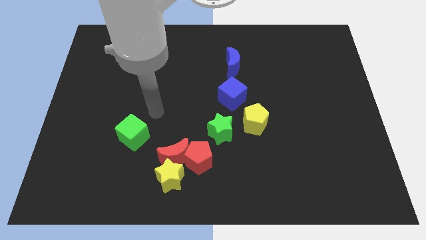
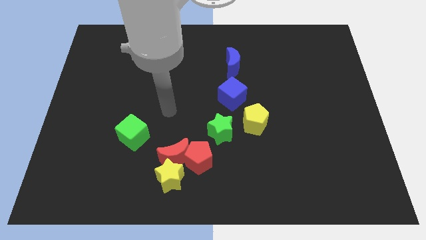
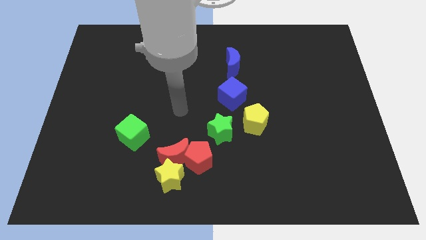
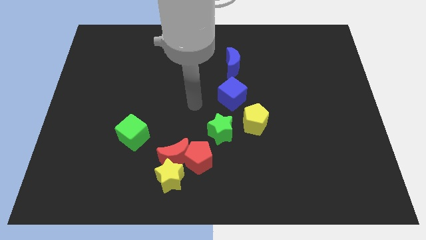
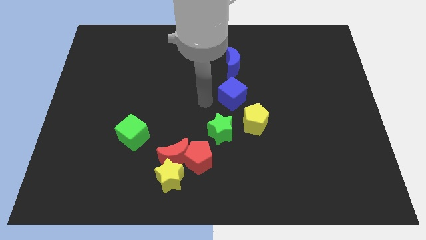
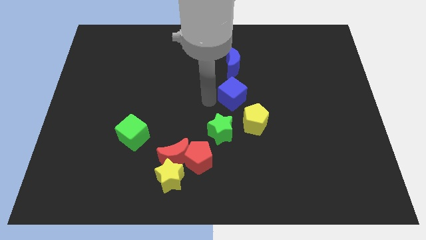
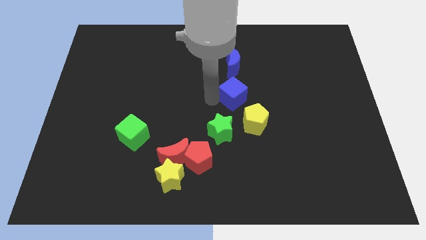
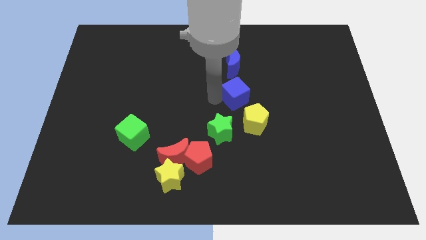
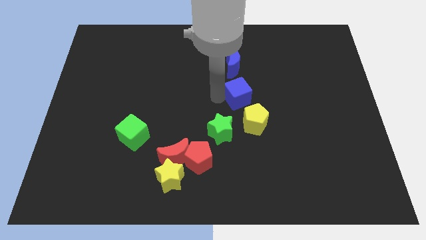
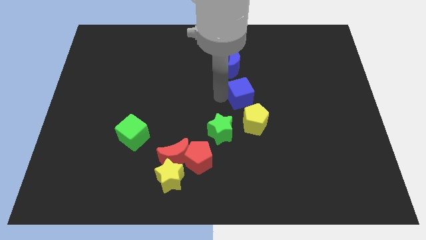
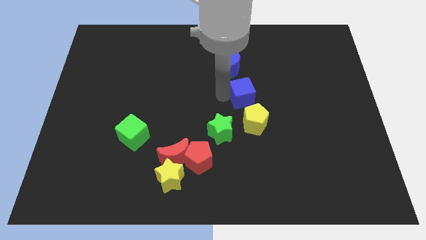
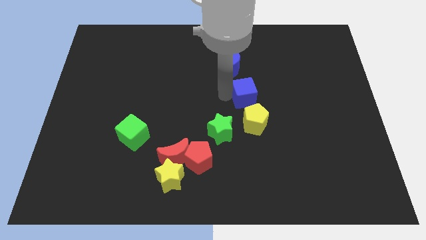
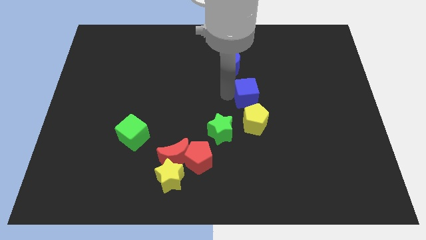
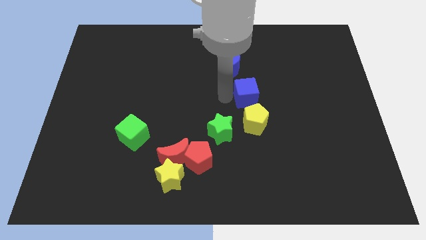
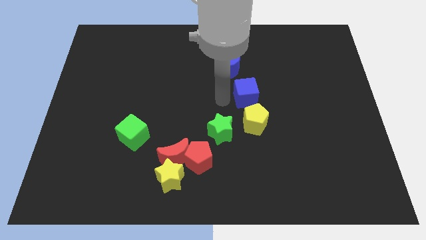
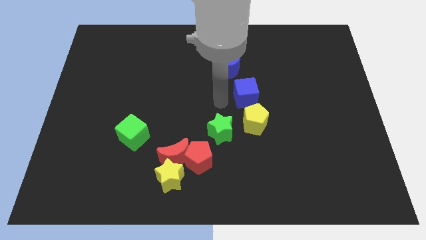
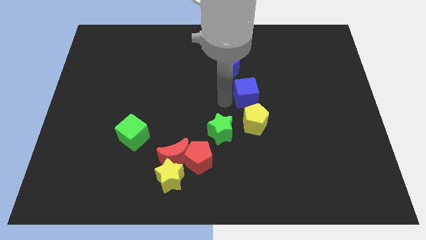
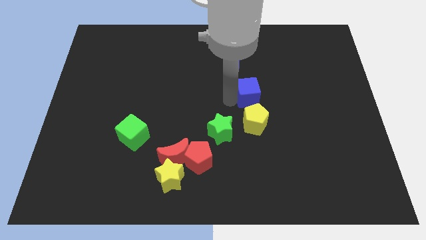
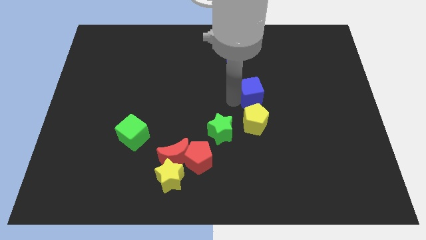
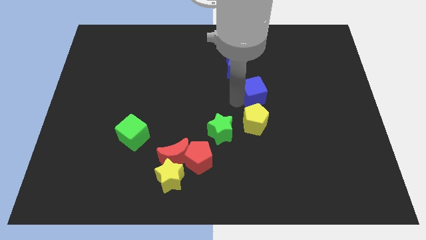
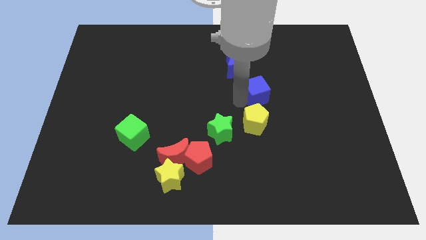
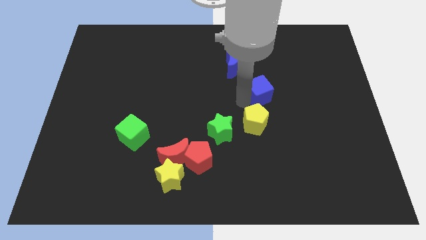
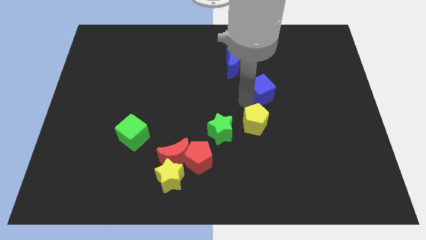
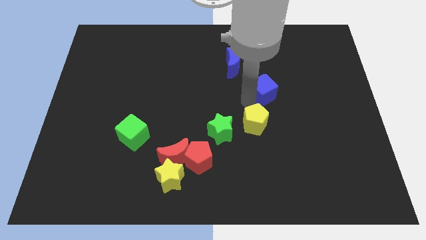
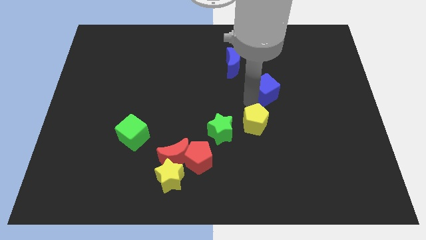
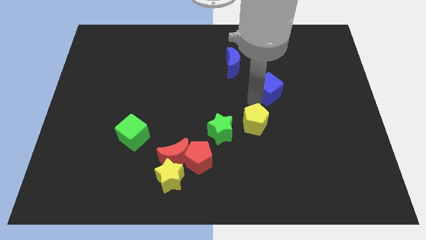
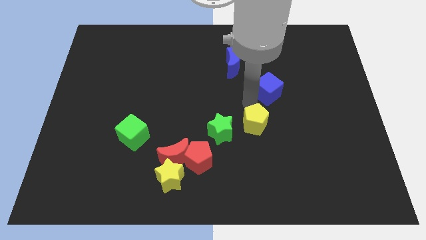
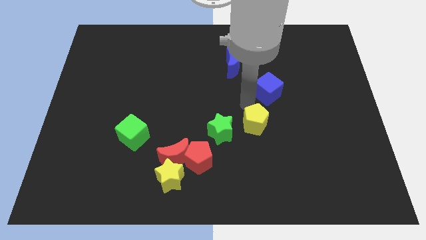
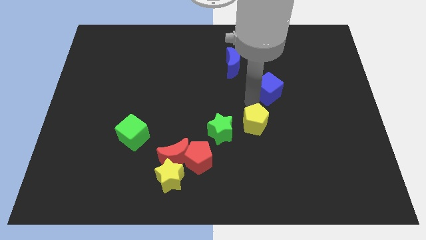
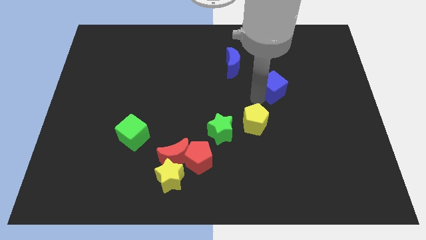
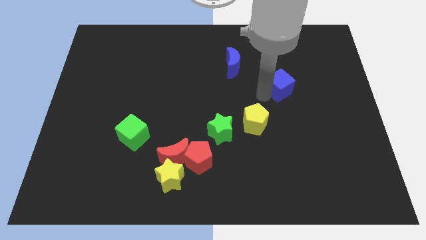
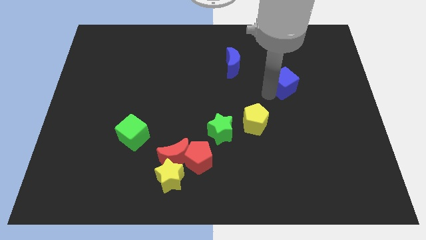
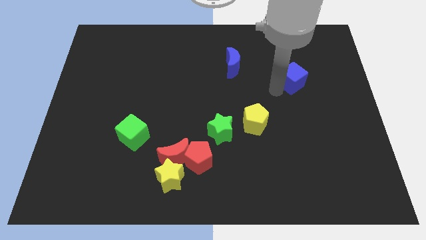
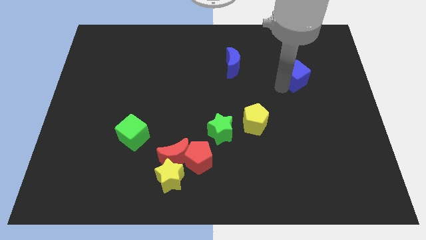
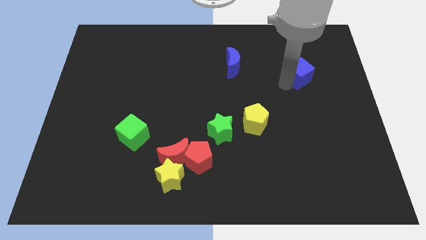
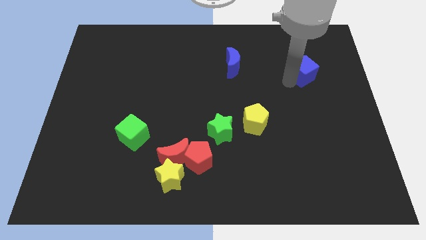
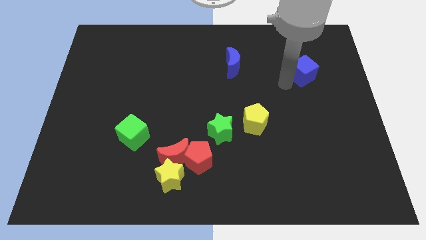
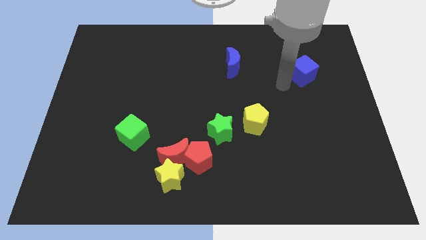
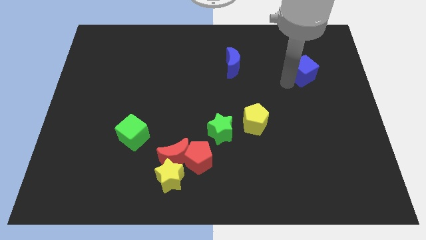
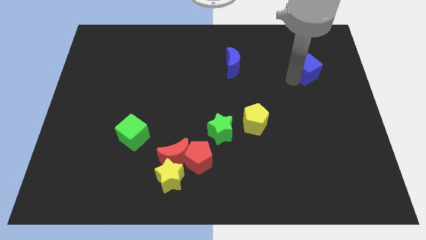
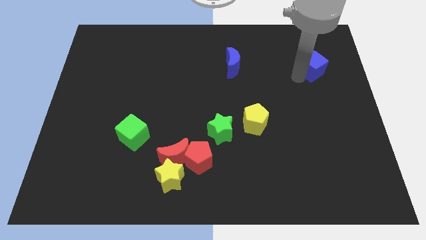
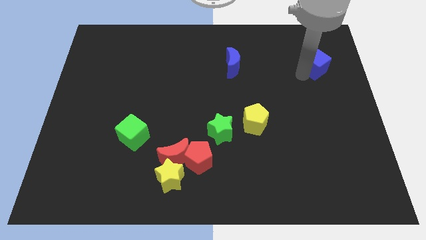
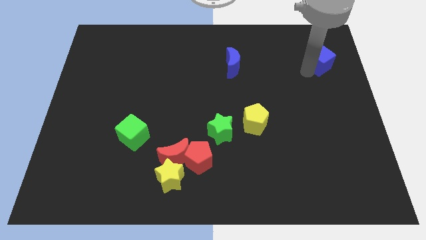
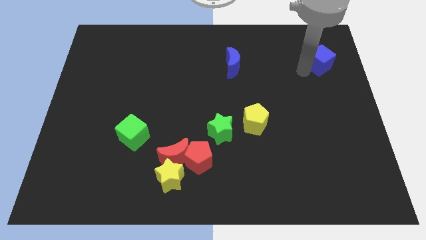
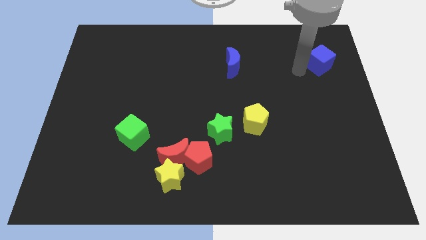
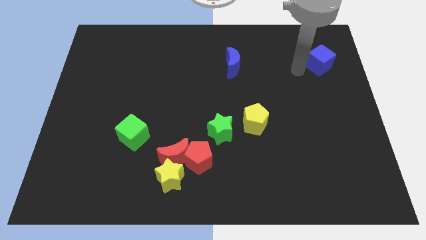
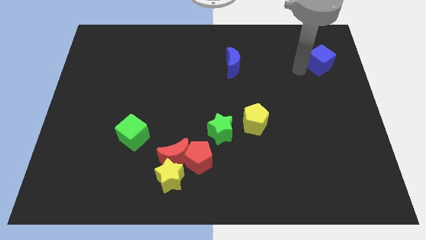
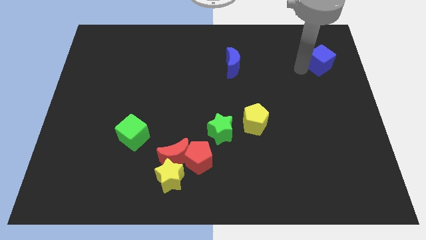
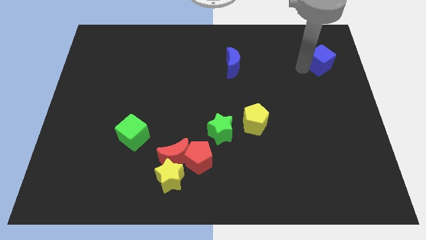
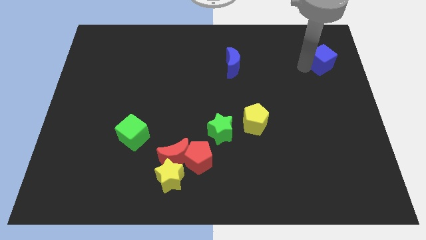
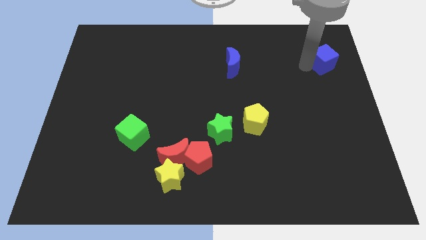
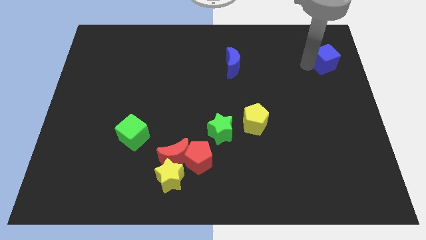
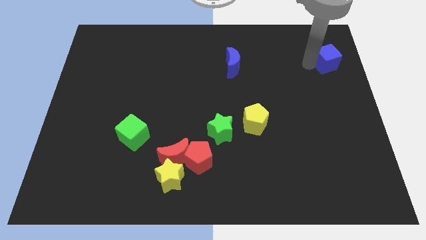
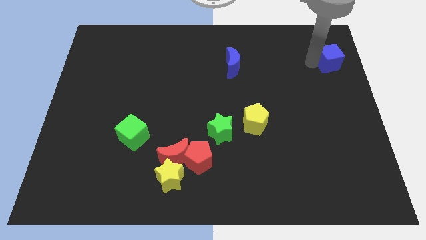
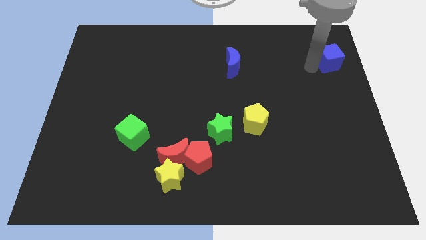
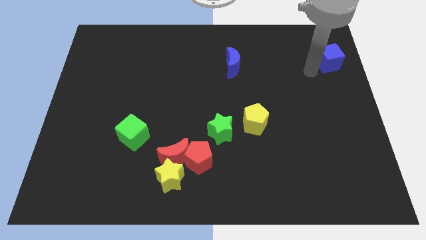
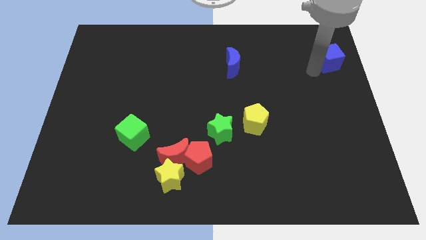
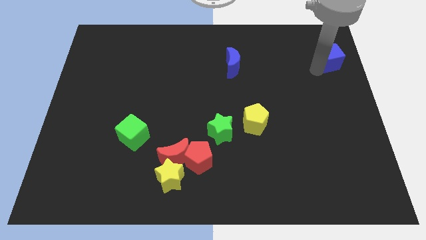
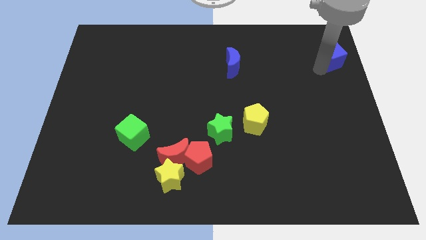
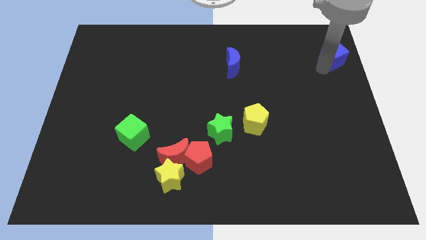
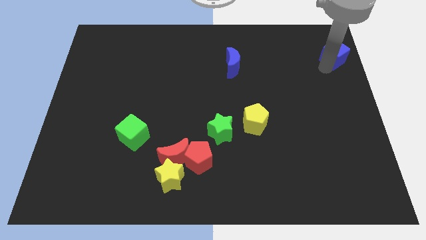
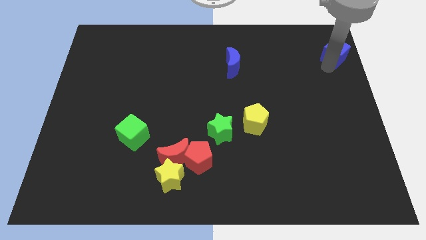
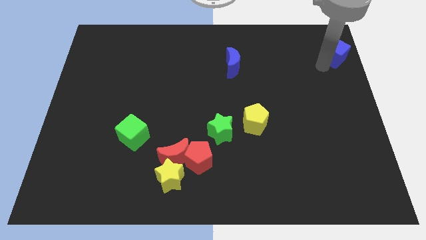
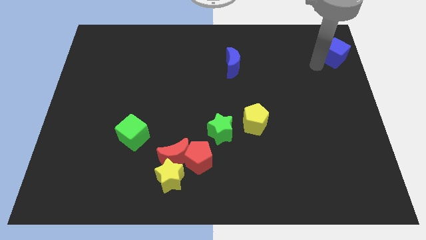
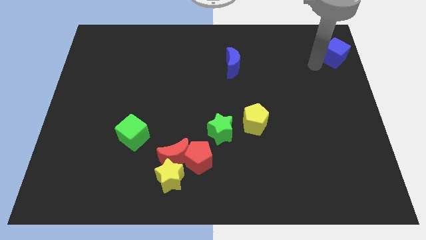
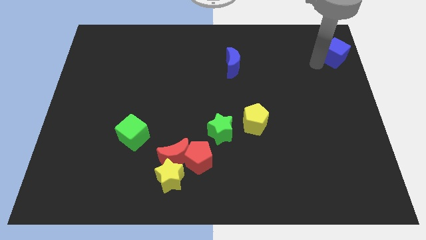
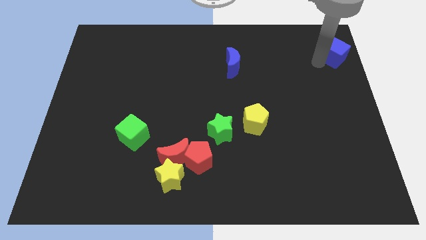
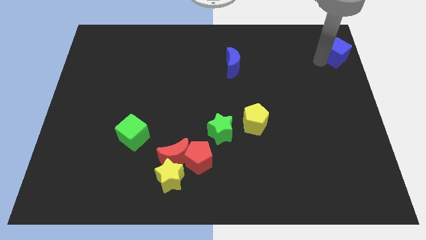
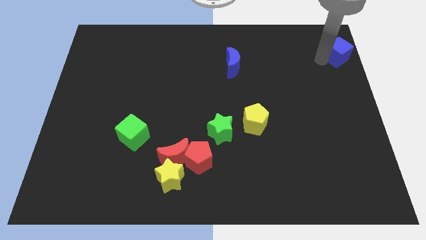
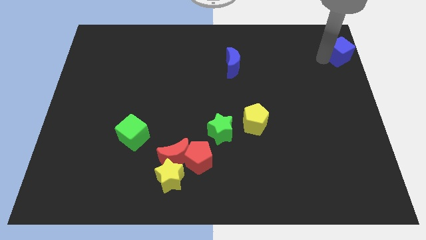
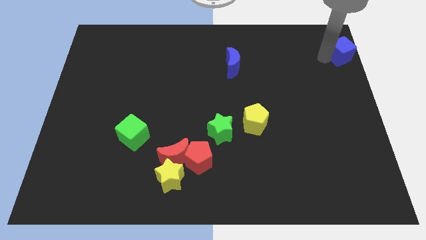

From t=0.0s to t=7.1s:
push the blue cube to the top right corner

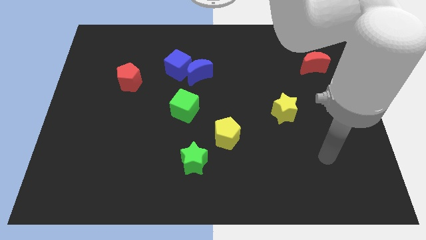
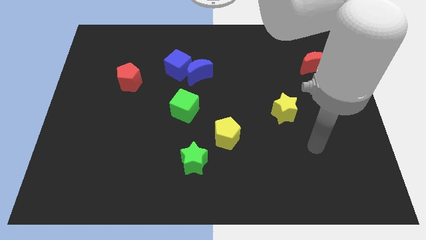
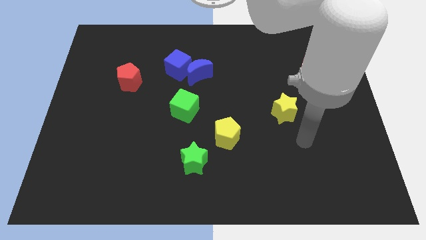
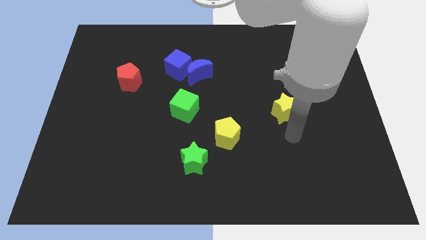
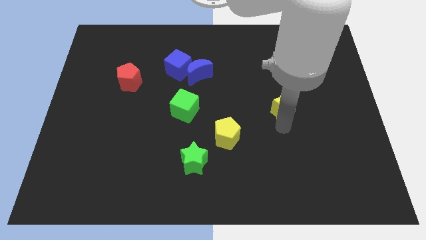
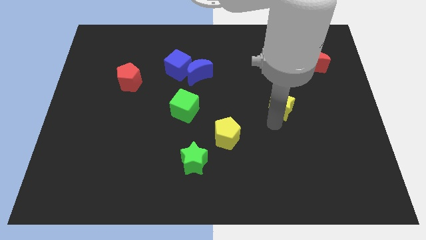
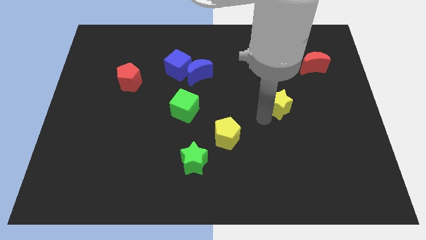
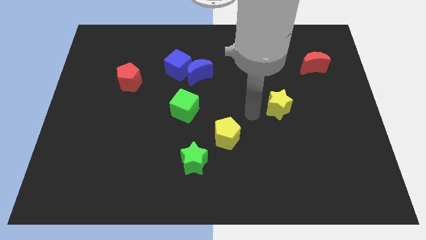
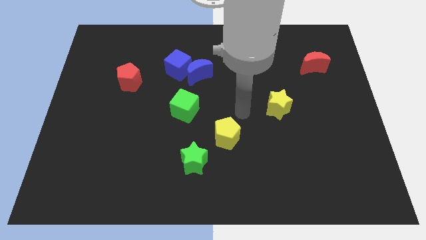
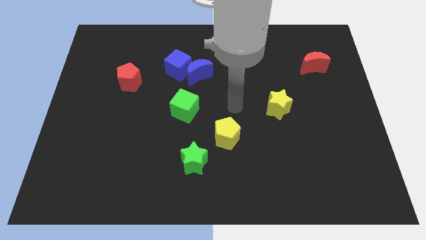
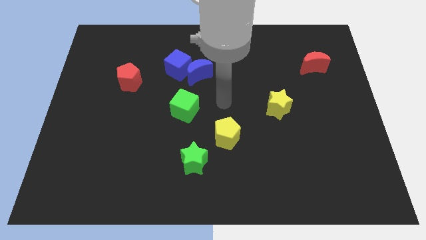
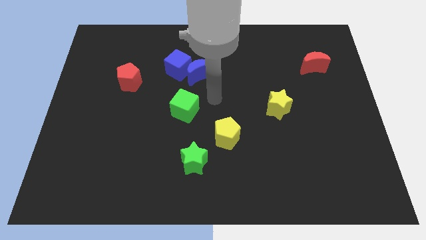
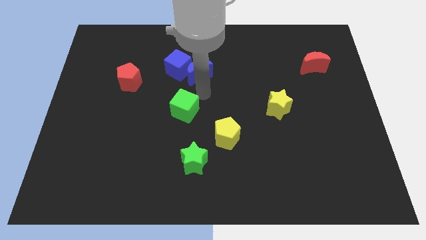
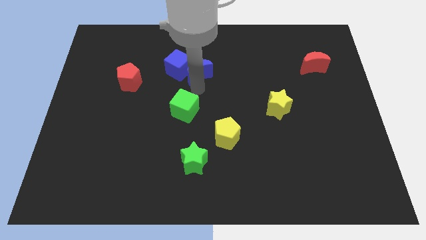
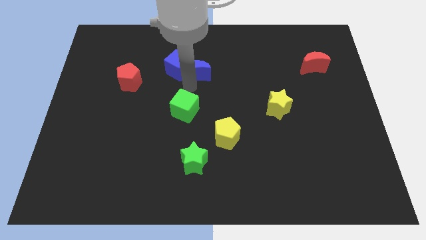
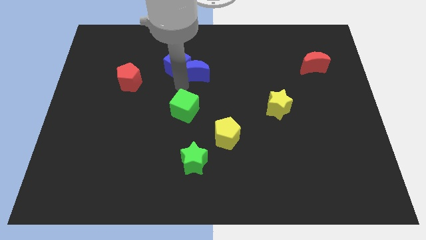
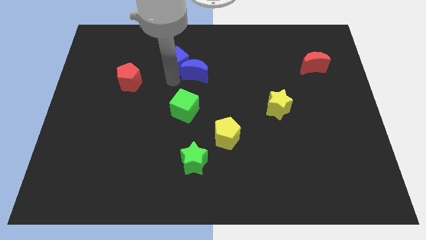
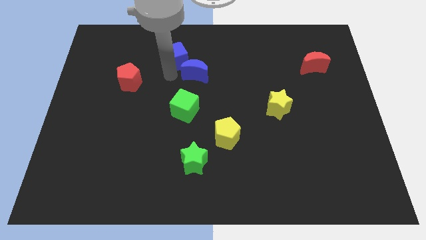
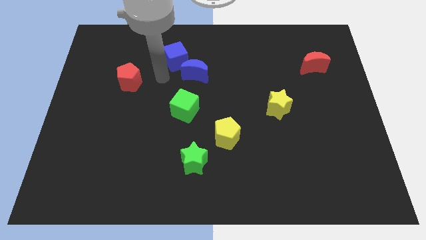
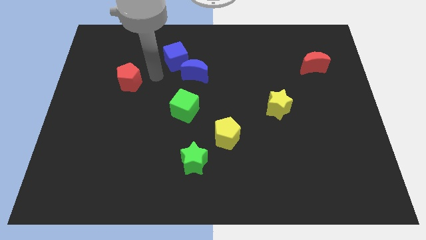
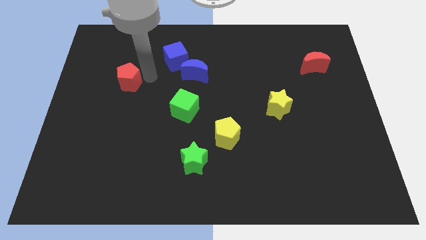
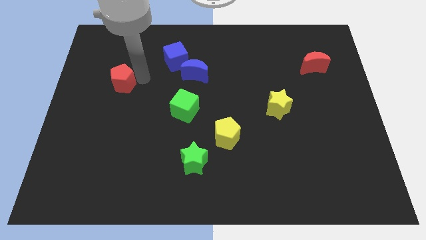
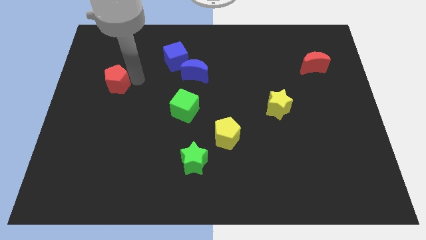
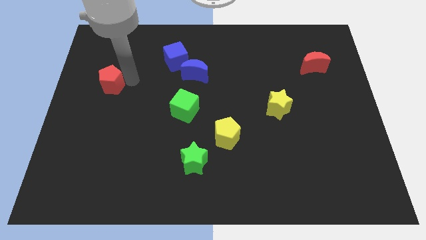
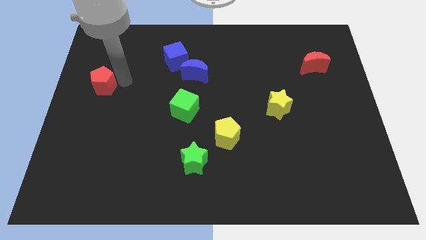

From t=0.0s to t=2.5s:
push the red pentagon to the left side
